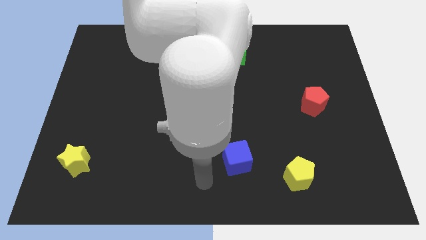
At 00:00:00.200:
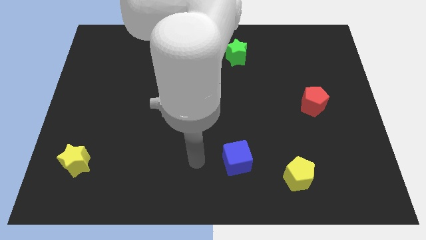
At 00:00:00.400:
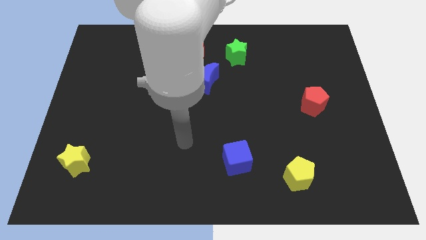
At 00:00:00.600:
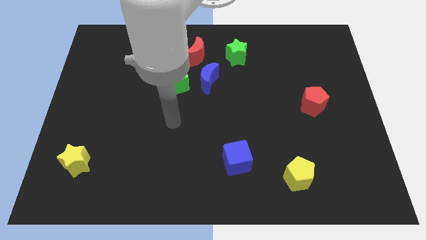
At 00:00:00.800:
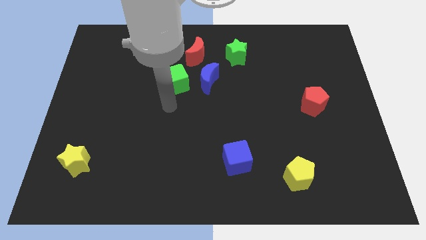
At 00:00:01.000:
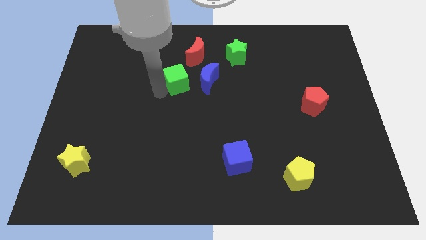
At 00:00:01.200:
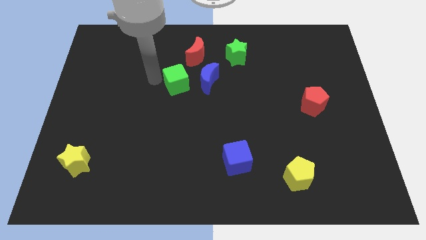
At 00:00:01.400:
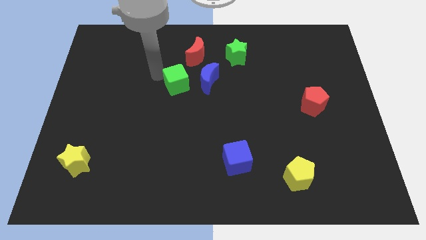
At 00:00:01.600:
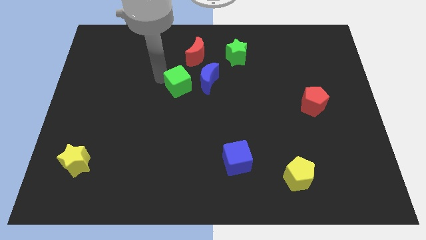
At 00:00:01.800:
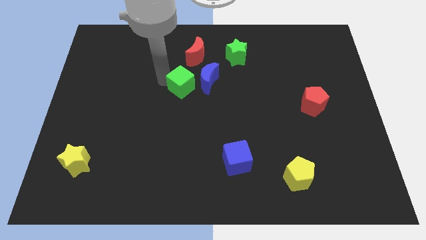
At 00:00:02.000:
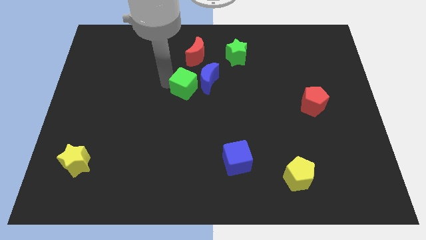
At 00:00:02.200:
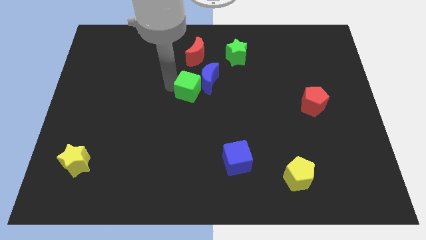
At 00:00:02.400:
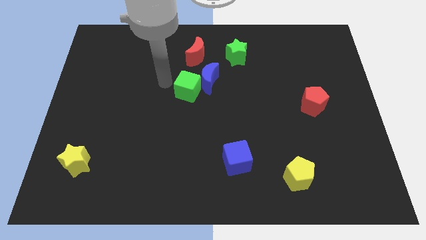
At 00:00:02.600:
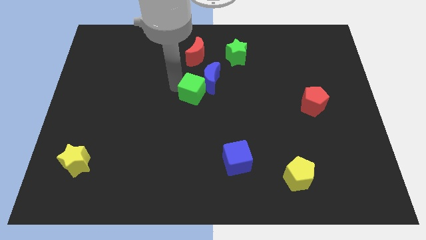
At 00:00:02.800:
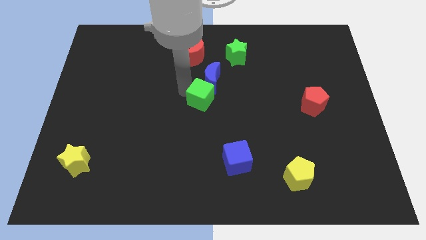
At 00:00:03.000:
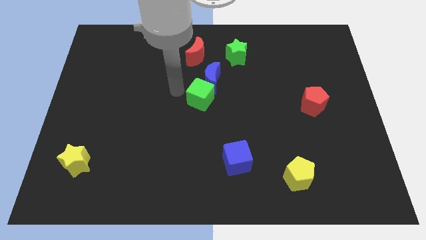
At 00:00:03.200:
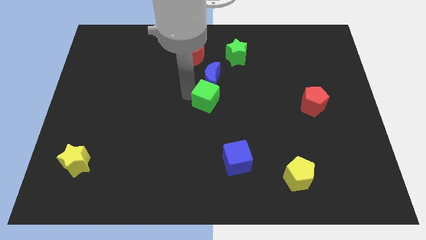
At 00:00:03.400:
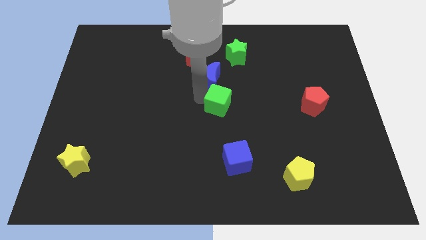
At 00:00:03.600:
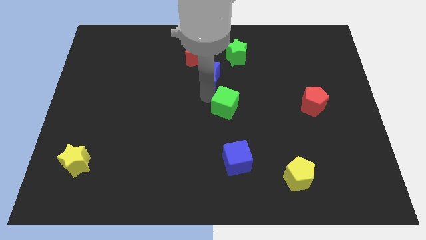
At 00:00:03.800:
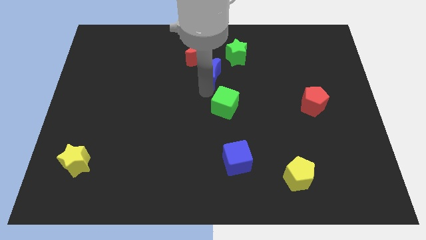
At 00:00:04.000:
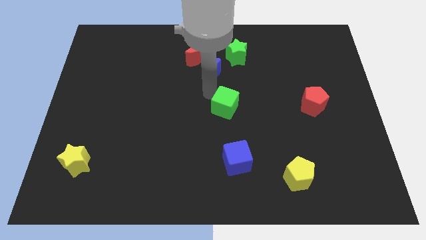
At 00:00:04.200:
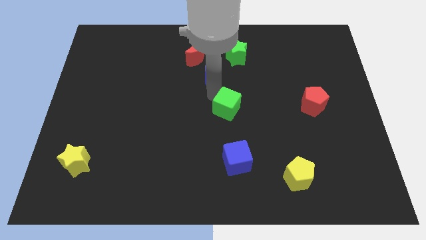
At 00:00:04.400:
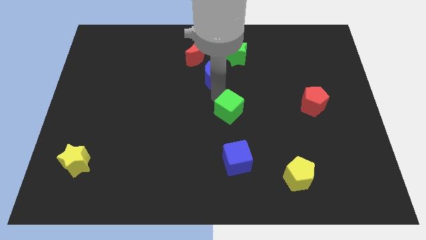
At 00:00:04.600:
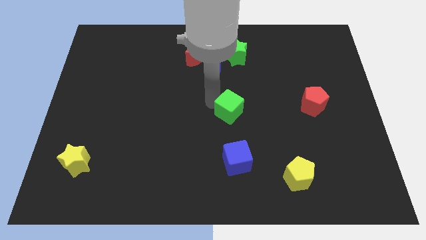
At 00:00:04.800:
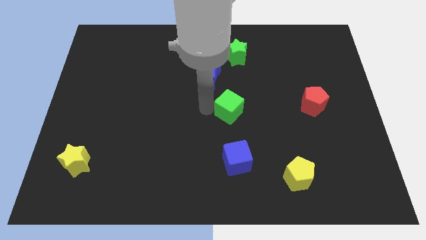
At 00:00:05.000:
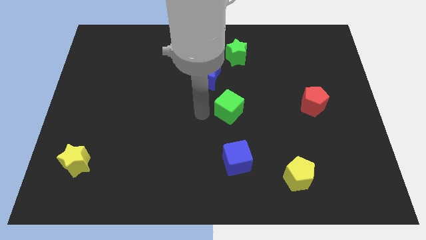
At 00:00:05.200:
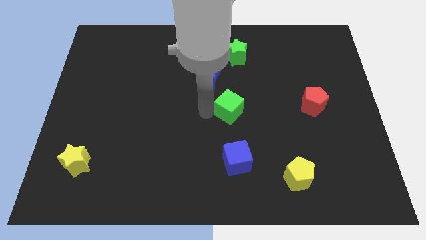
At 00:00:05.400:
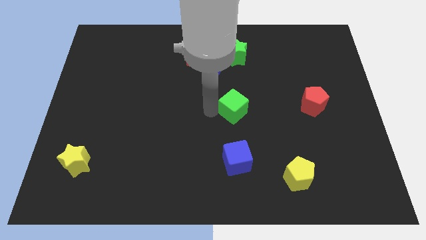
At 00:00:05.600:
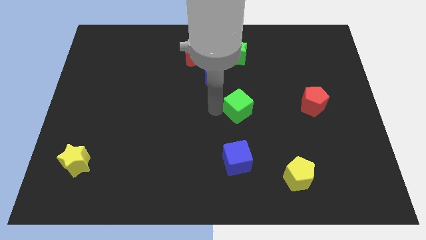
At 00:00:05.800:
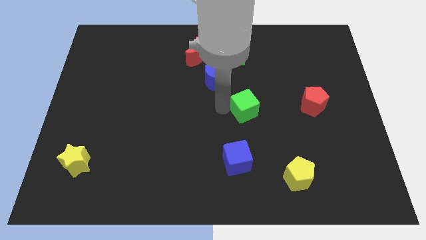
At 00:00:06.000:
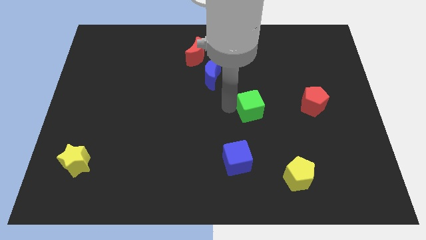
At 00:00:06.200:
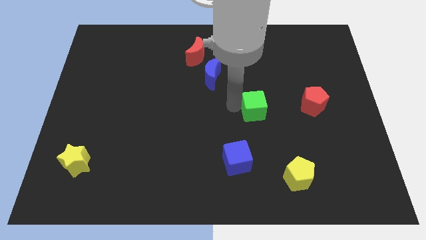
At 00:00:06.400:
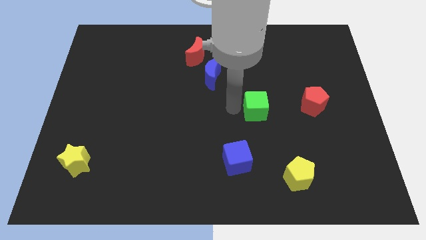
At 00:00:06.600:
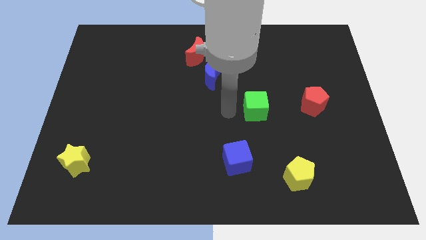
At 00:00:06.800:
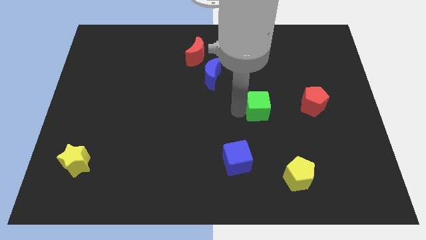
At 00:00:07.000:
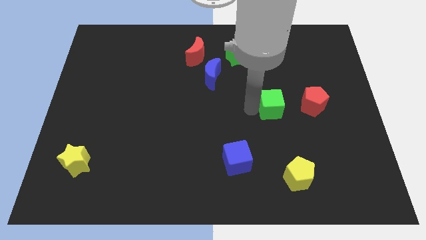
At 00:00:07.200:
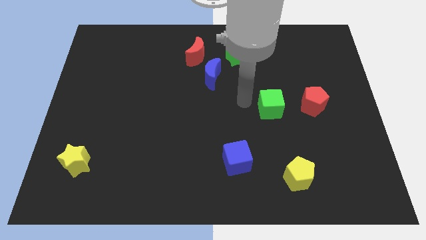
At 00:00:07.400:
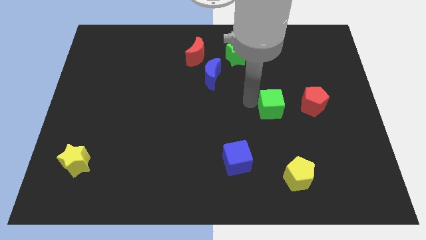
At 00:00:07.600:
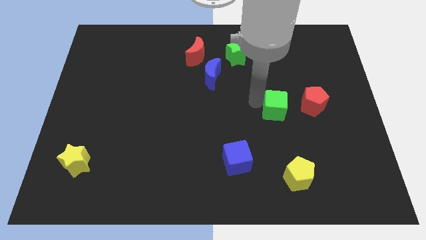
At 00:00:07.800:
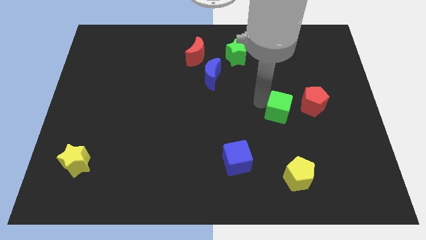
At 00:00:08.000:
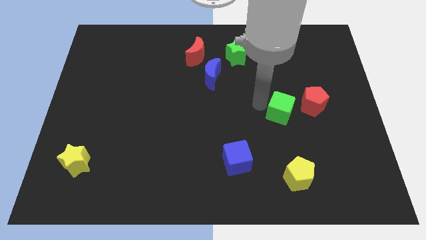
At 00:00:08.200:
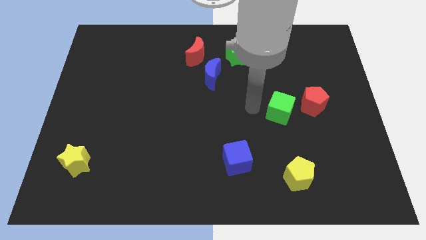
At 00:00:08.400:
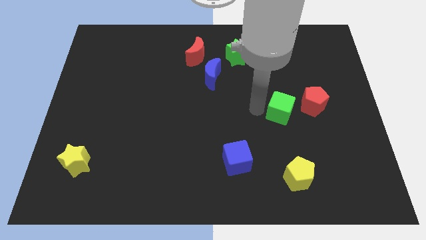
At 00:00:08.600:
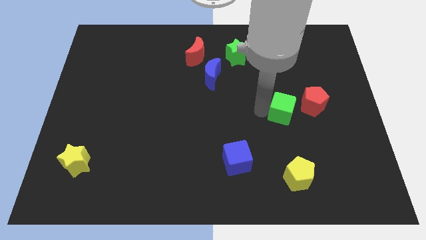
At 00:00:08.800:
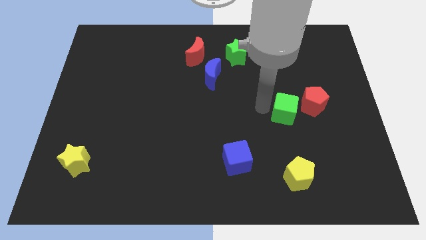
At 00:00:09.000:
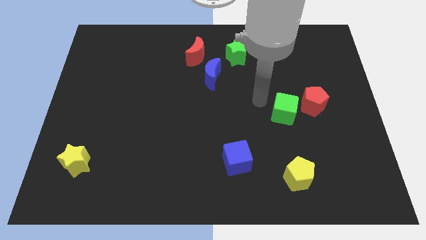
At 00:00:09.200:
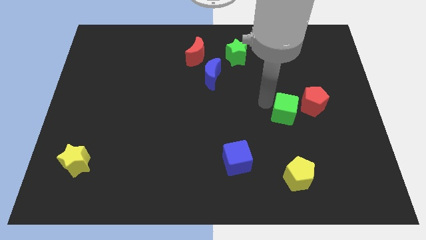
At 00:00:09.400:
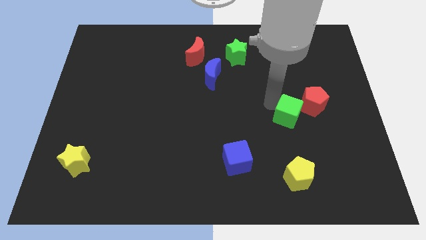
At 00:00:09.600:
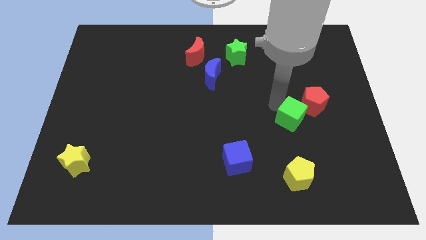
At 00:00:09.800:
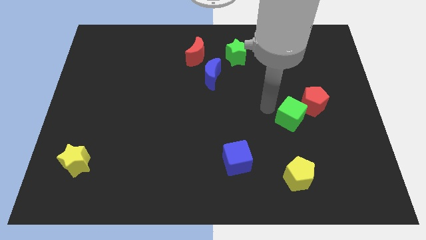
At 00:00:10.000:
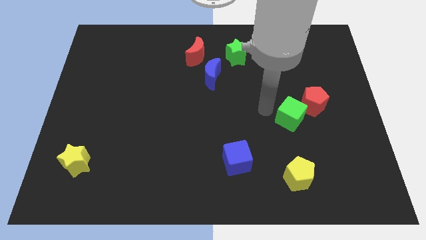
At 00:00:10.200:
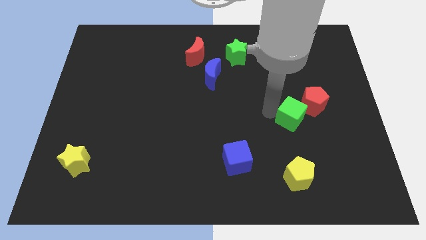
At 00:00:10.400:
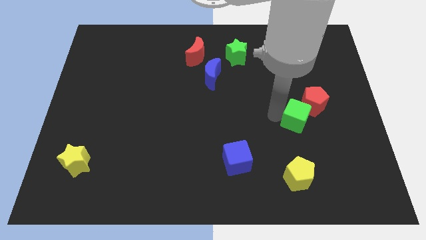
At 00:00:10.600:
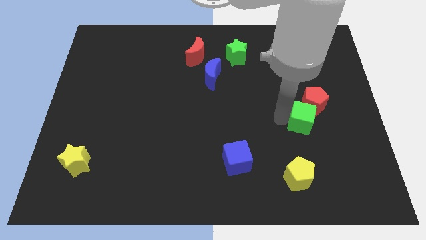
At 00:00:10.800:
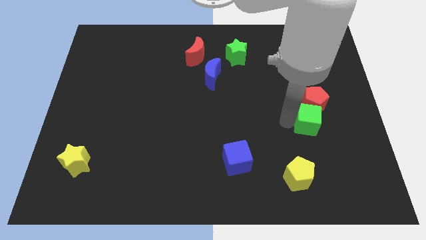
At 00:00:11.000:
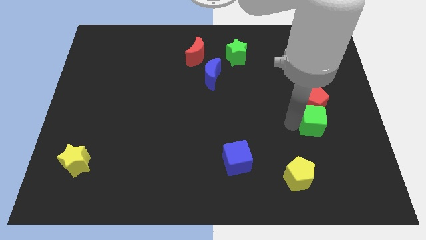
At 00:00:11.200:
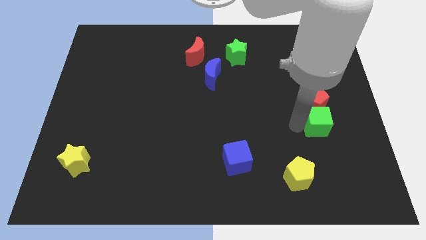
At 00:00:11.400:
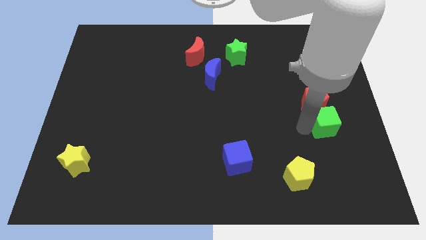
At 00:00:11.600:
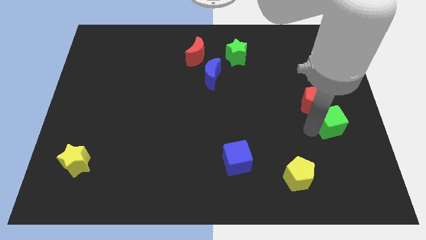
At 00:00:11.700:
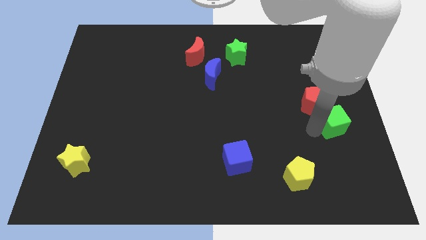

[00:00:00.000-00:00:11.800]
put the green cube to the right side of the board
